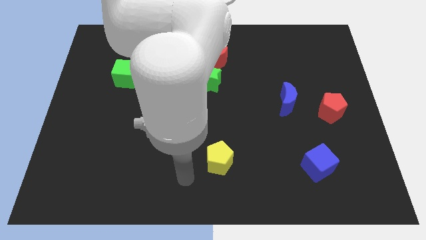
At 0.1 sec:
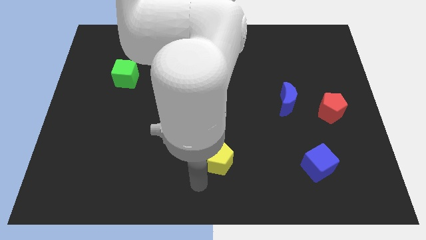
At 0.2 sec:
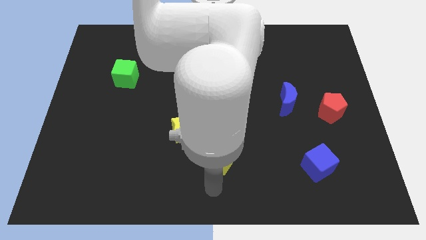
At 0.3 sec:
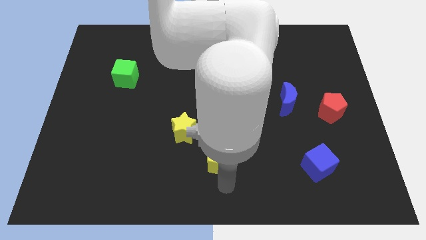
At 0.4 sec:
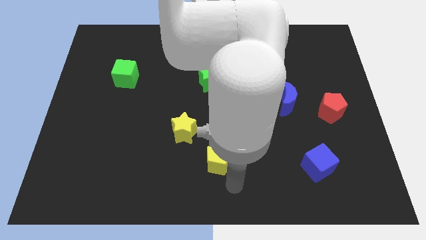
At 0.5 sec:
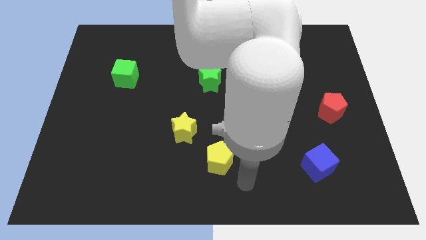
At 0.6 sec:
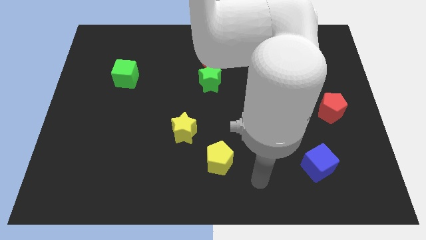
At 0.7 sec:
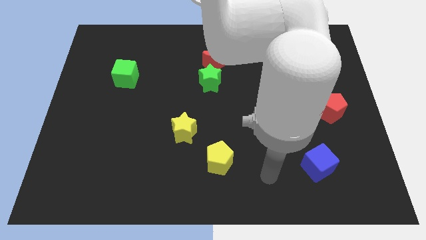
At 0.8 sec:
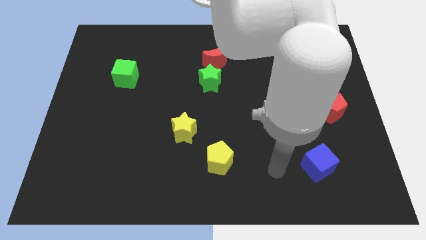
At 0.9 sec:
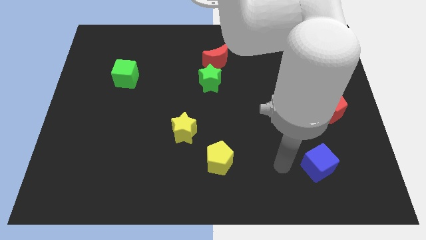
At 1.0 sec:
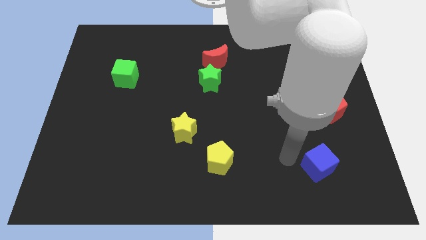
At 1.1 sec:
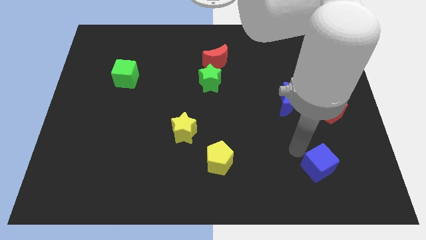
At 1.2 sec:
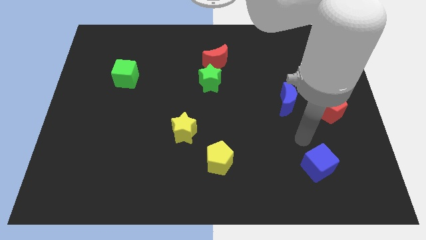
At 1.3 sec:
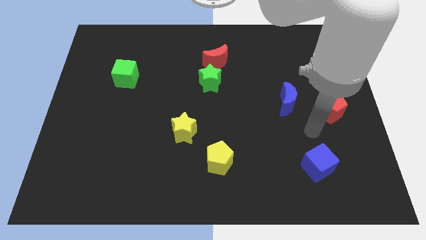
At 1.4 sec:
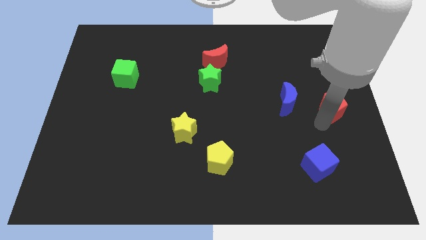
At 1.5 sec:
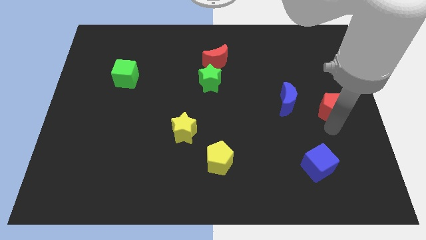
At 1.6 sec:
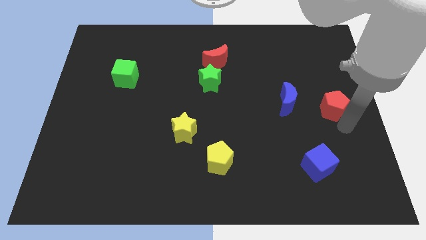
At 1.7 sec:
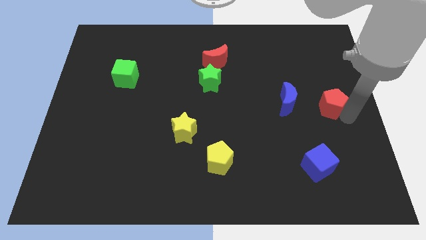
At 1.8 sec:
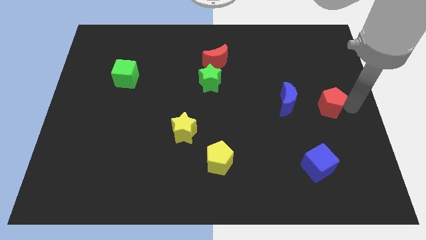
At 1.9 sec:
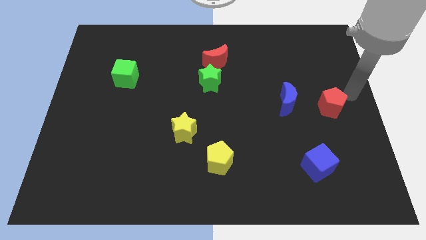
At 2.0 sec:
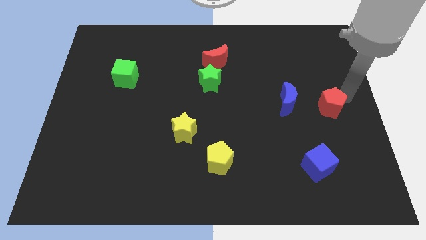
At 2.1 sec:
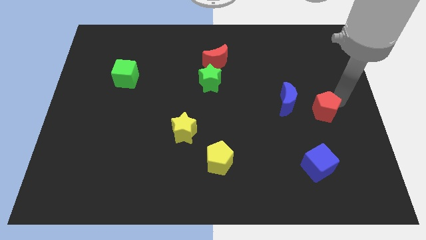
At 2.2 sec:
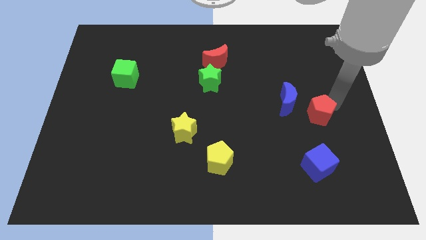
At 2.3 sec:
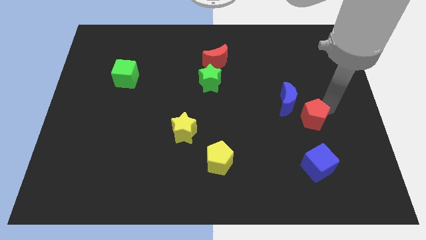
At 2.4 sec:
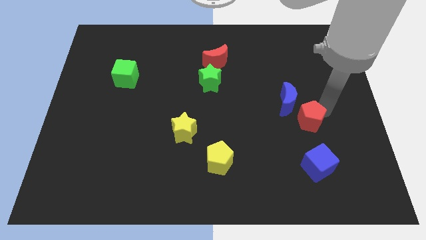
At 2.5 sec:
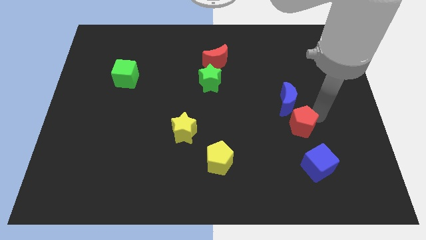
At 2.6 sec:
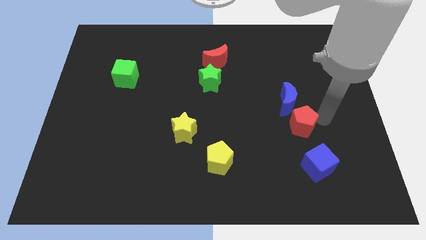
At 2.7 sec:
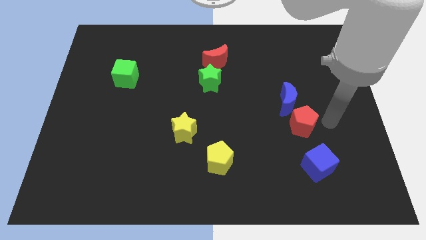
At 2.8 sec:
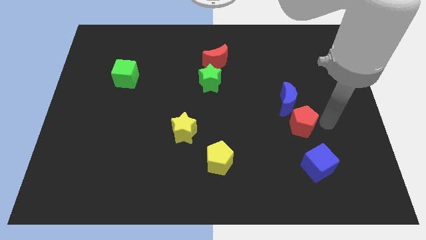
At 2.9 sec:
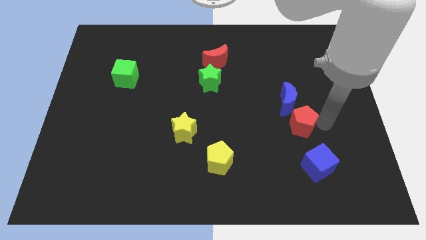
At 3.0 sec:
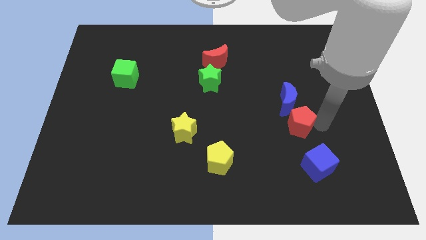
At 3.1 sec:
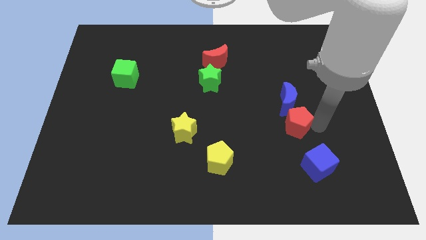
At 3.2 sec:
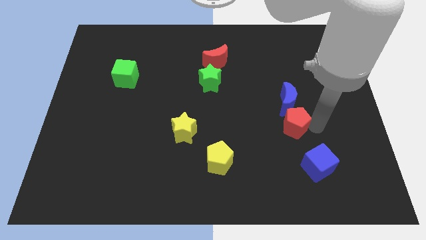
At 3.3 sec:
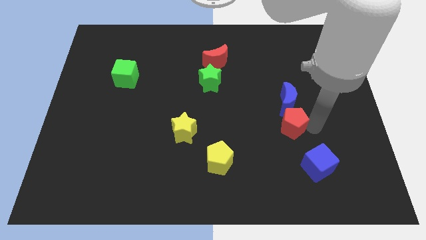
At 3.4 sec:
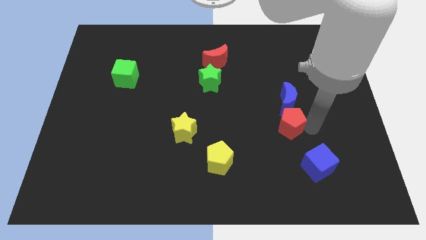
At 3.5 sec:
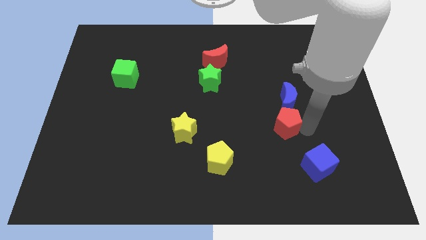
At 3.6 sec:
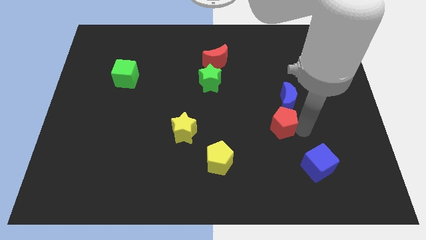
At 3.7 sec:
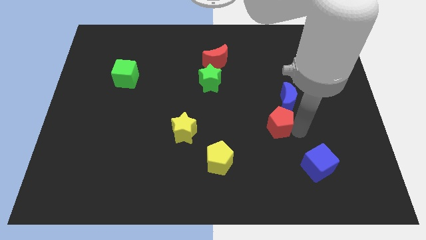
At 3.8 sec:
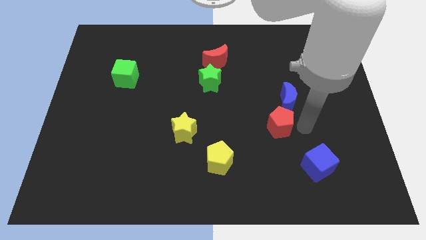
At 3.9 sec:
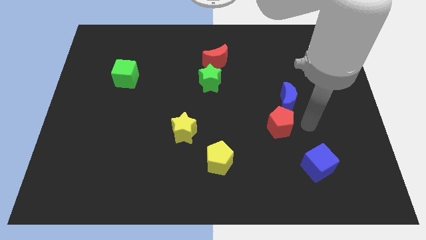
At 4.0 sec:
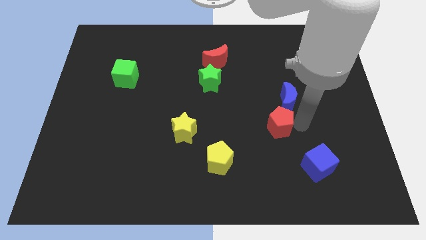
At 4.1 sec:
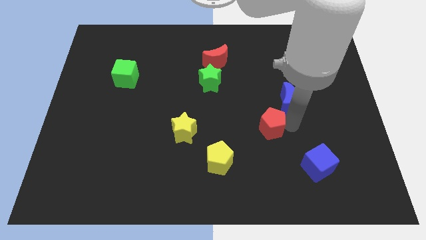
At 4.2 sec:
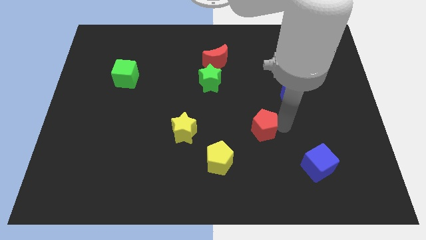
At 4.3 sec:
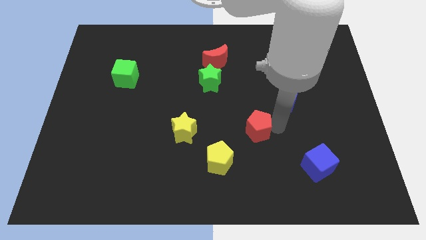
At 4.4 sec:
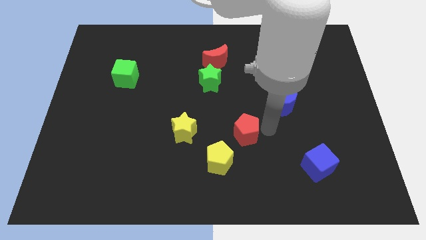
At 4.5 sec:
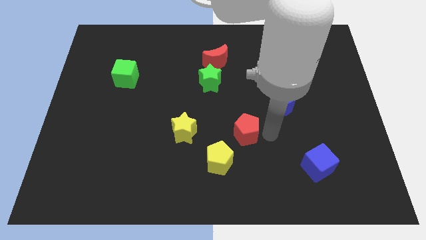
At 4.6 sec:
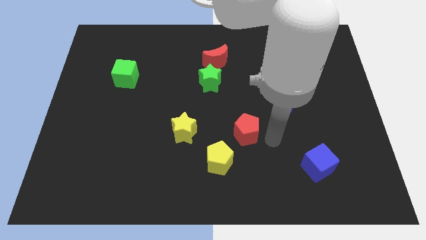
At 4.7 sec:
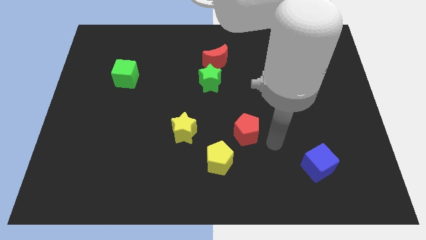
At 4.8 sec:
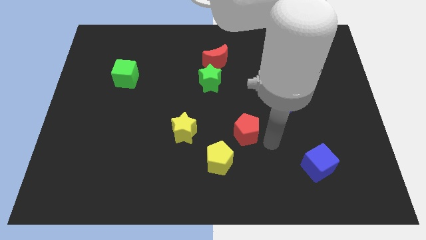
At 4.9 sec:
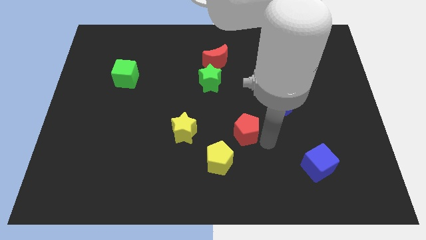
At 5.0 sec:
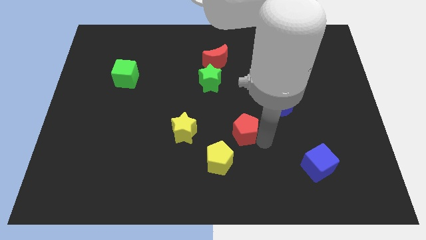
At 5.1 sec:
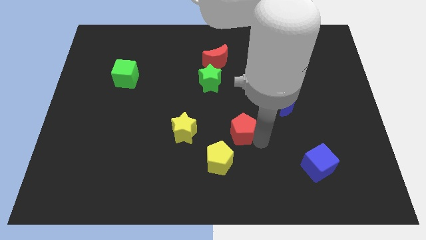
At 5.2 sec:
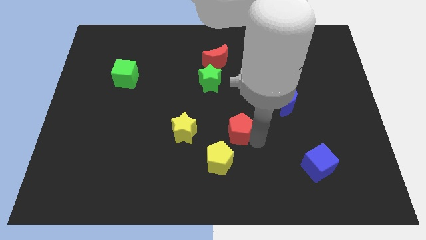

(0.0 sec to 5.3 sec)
slide the red pentagon to the top of the yellow pentagon

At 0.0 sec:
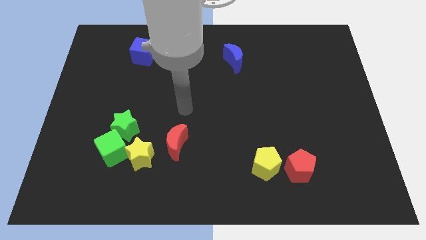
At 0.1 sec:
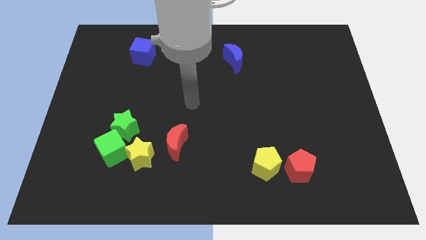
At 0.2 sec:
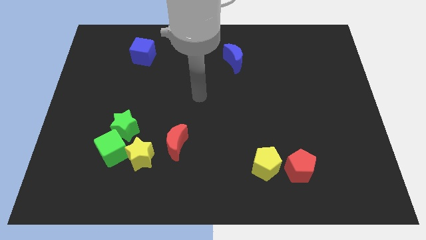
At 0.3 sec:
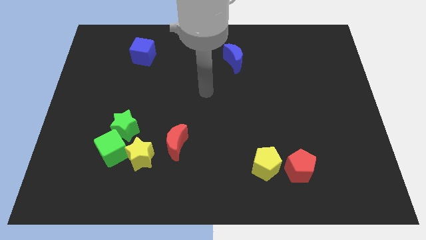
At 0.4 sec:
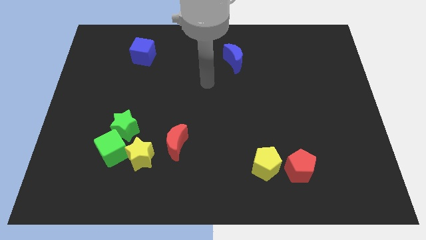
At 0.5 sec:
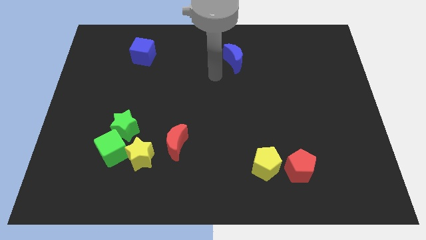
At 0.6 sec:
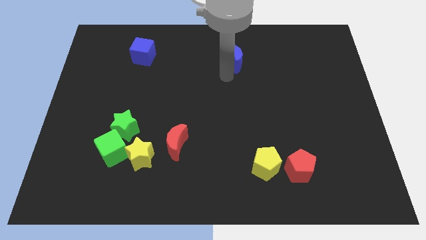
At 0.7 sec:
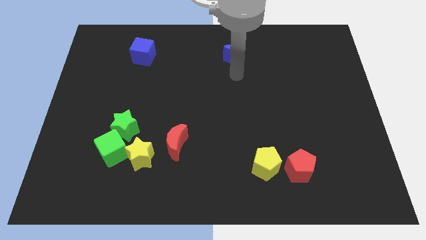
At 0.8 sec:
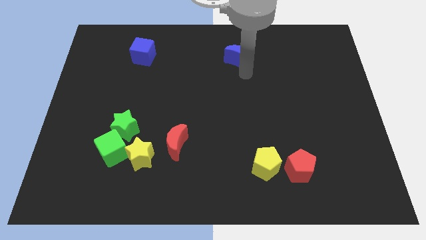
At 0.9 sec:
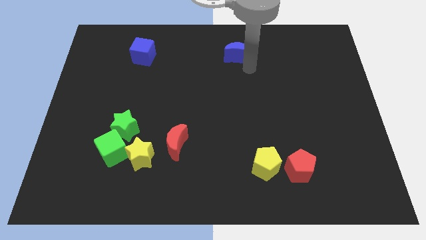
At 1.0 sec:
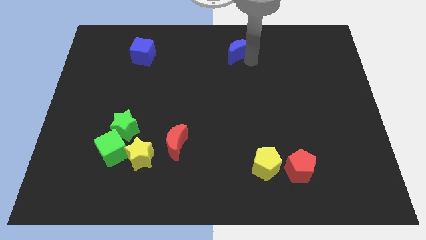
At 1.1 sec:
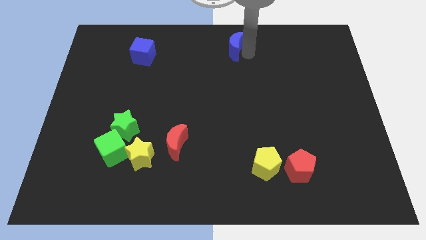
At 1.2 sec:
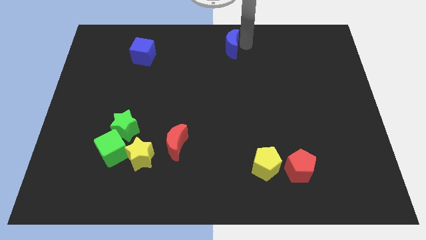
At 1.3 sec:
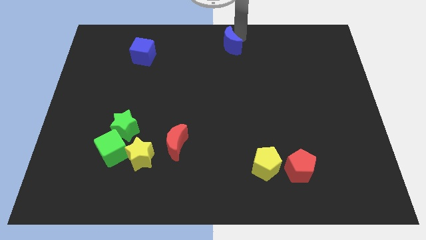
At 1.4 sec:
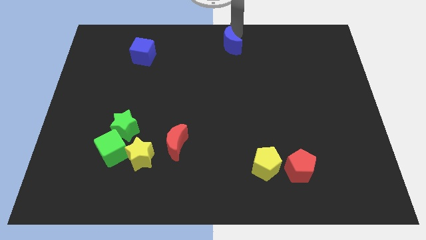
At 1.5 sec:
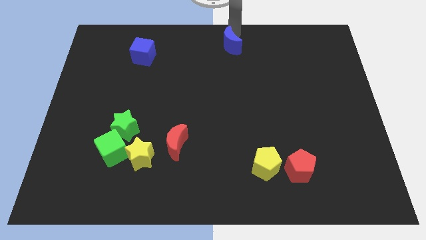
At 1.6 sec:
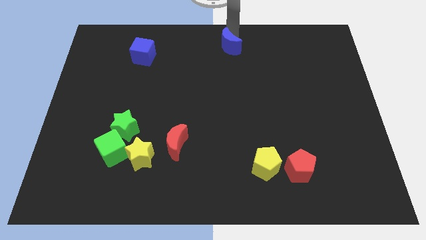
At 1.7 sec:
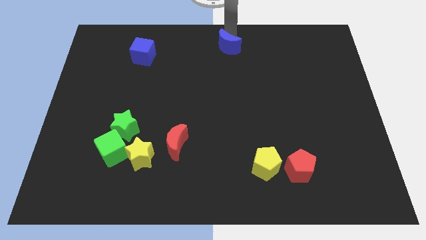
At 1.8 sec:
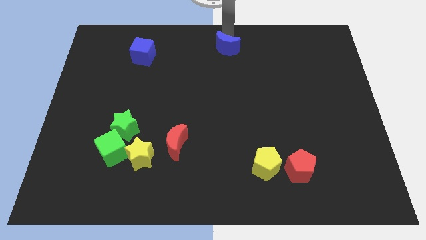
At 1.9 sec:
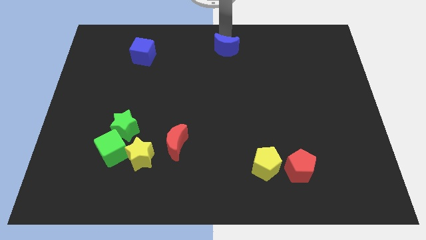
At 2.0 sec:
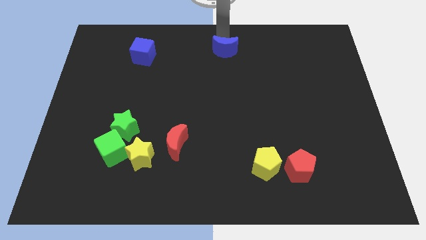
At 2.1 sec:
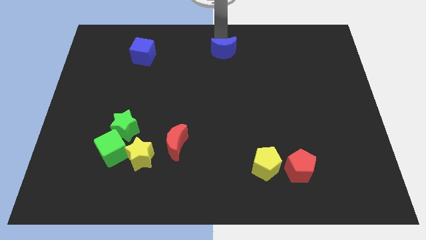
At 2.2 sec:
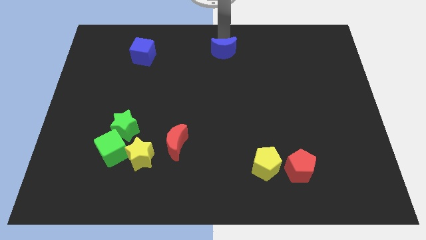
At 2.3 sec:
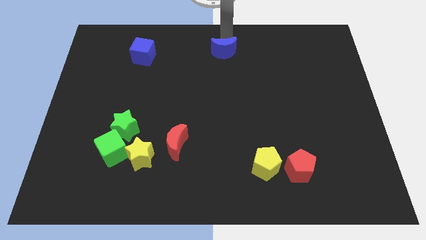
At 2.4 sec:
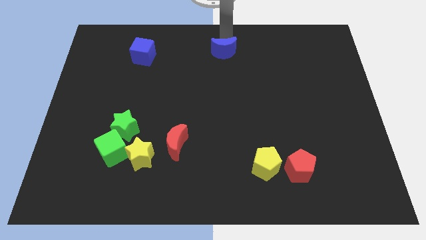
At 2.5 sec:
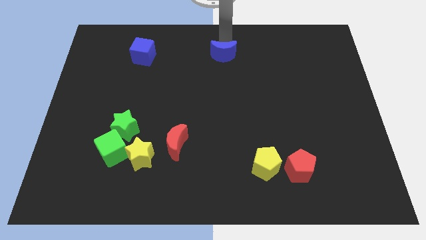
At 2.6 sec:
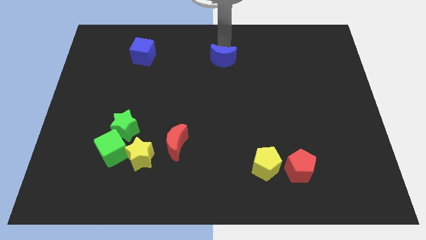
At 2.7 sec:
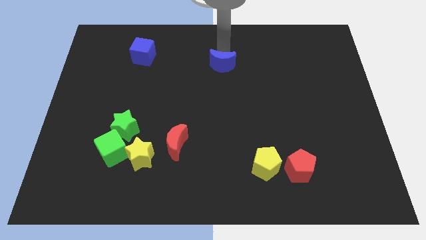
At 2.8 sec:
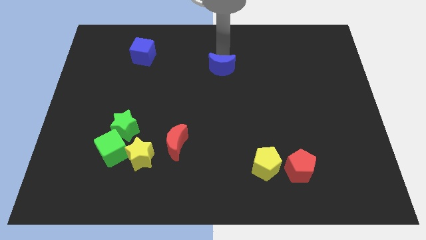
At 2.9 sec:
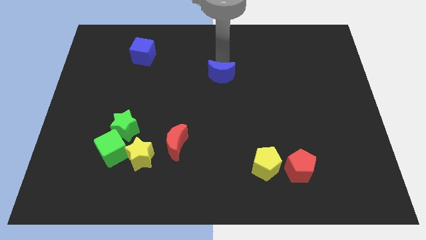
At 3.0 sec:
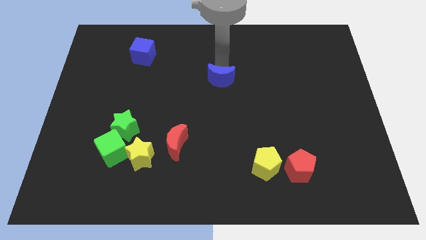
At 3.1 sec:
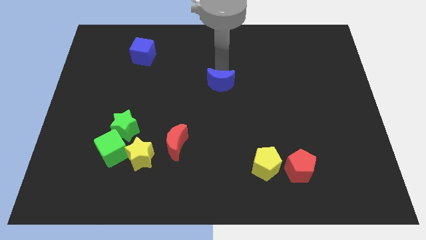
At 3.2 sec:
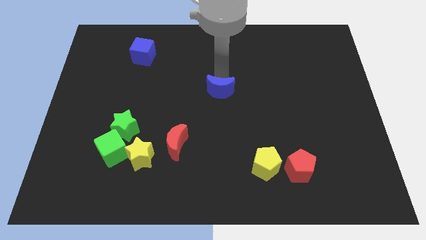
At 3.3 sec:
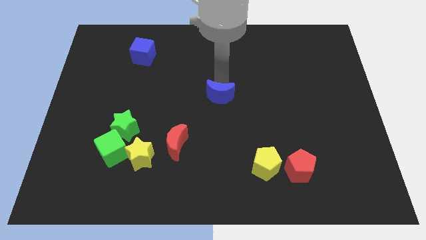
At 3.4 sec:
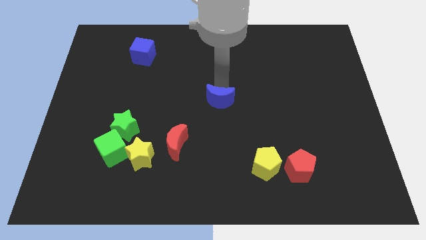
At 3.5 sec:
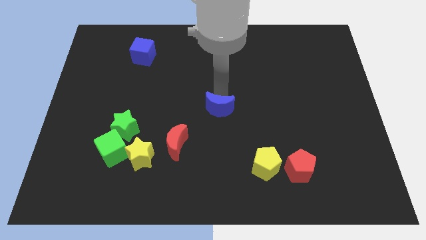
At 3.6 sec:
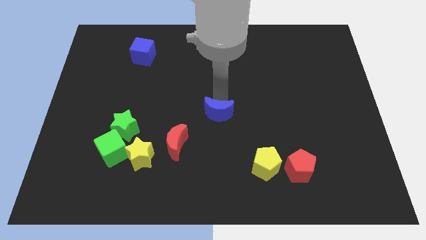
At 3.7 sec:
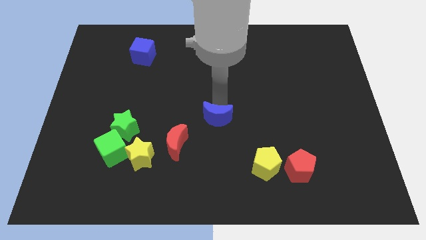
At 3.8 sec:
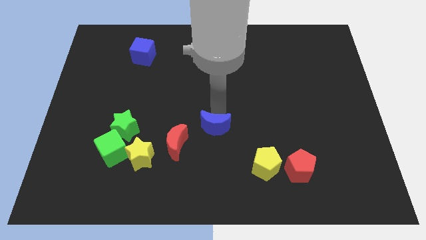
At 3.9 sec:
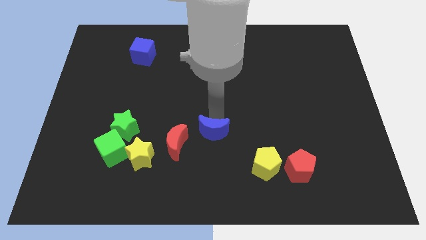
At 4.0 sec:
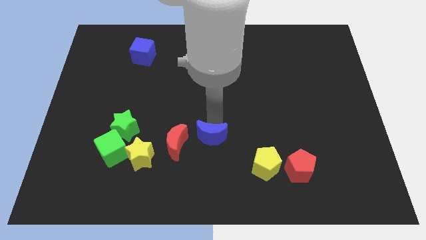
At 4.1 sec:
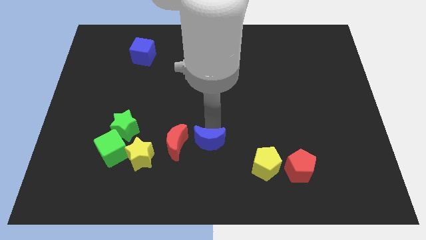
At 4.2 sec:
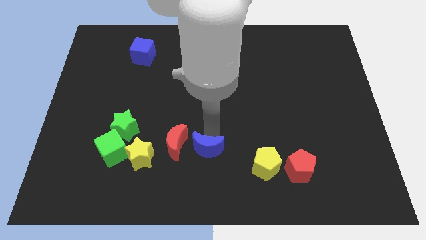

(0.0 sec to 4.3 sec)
push the blue moon to the bottom right of the red moon
